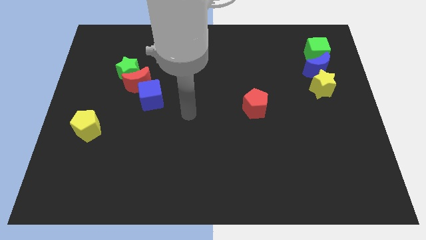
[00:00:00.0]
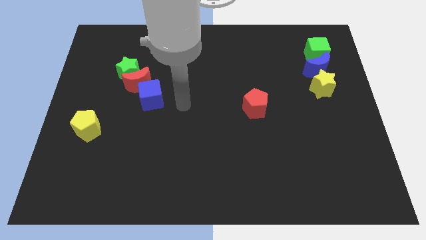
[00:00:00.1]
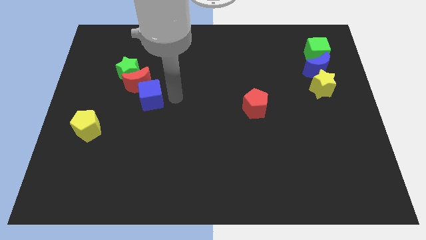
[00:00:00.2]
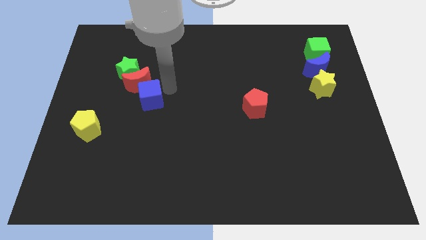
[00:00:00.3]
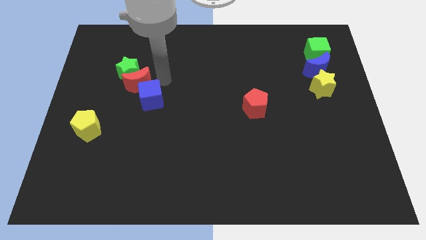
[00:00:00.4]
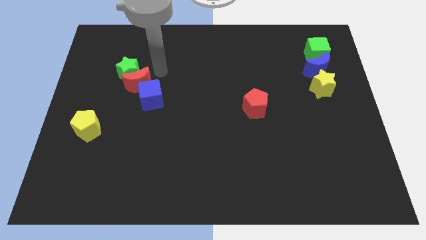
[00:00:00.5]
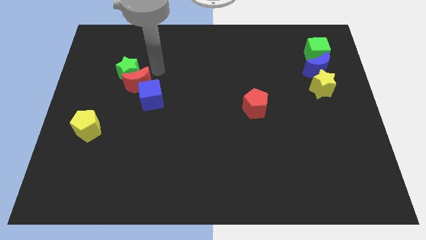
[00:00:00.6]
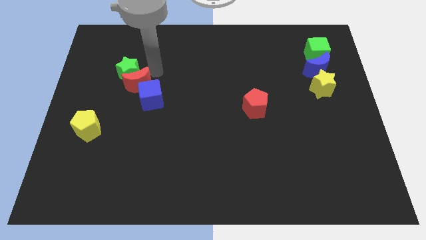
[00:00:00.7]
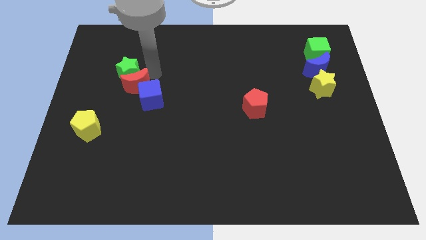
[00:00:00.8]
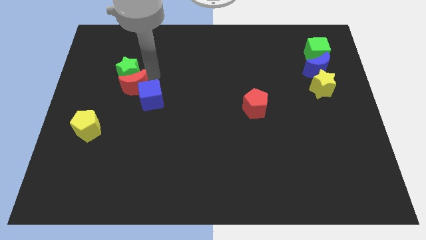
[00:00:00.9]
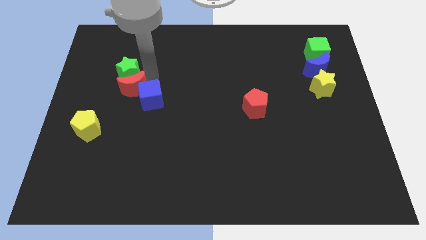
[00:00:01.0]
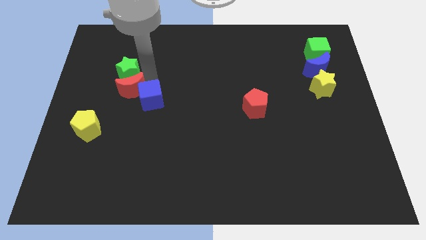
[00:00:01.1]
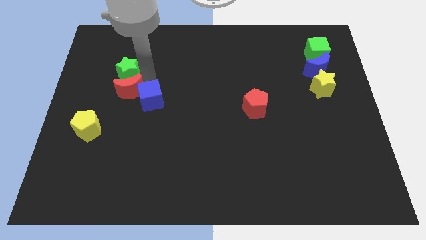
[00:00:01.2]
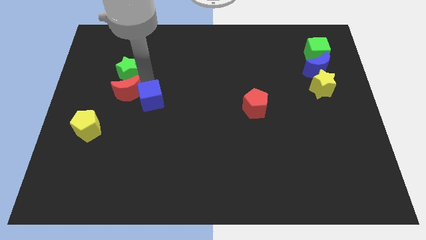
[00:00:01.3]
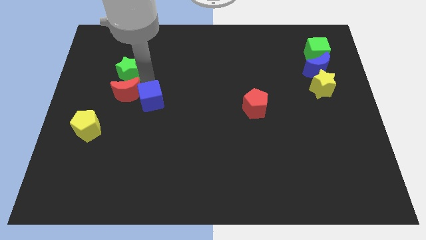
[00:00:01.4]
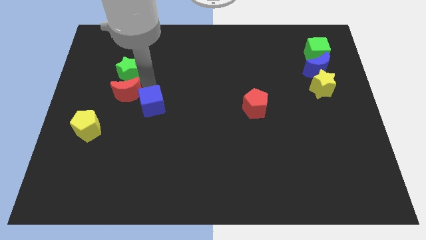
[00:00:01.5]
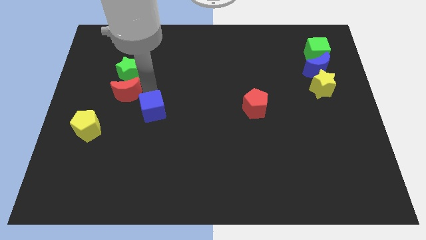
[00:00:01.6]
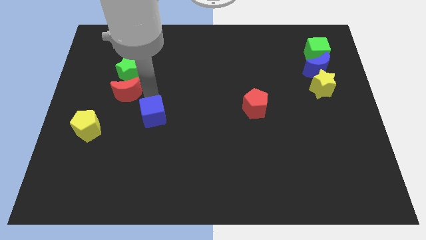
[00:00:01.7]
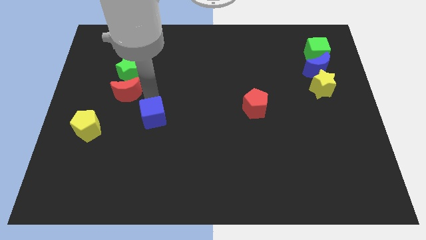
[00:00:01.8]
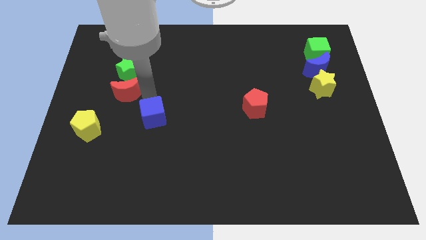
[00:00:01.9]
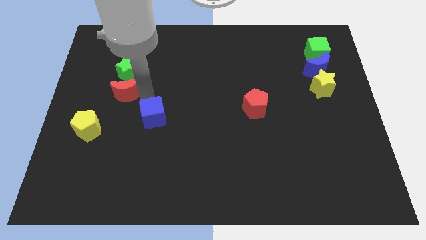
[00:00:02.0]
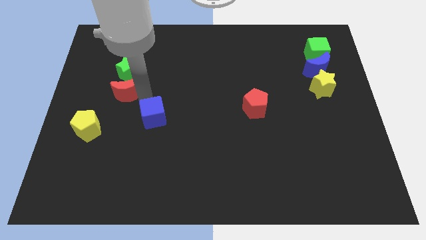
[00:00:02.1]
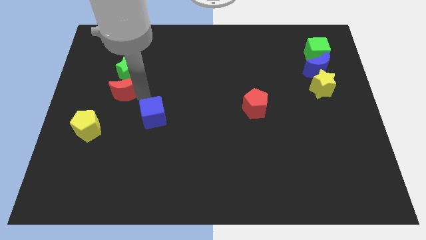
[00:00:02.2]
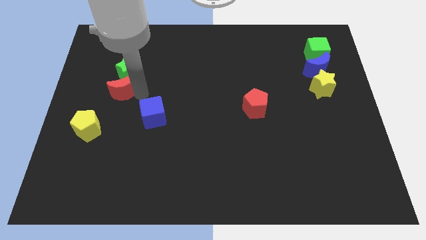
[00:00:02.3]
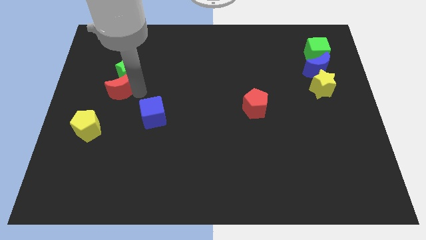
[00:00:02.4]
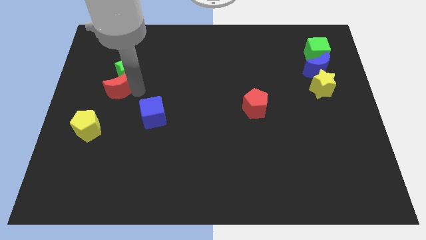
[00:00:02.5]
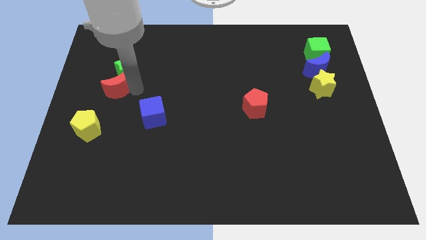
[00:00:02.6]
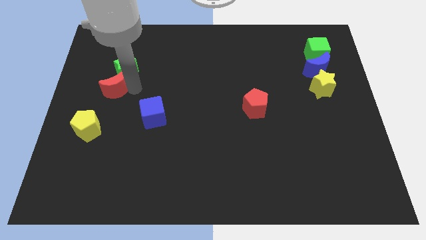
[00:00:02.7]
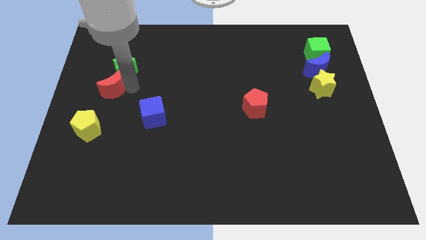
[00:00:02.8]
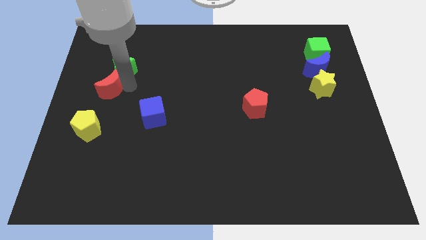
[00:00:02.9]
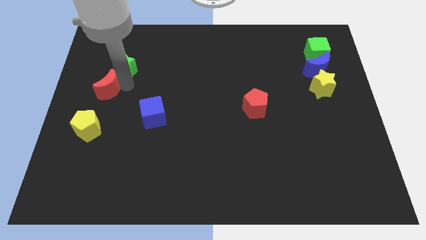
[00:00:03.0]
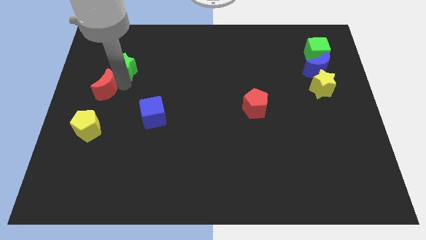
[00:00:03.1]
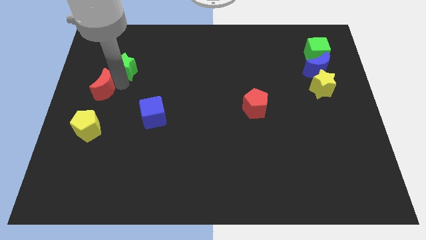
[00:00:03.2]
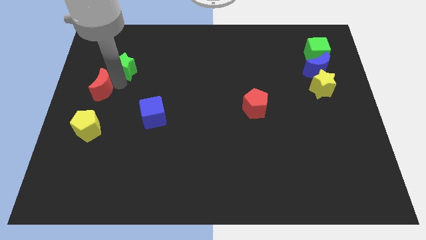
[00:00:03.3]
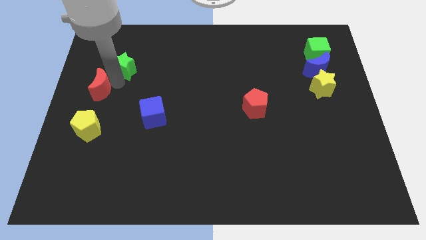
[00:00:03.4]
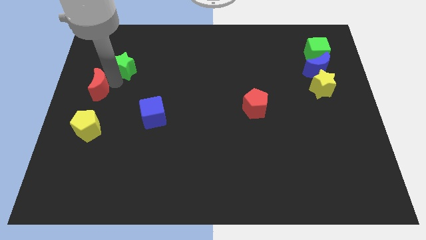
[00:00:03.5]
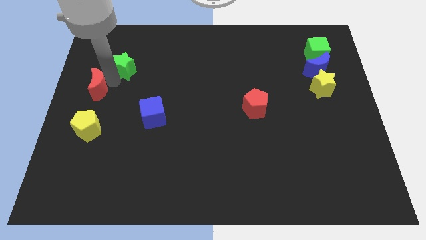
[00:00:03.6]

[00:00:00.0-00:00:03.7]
pull the red moon apart from the green star and blue cube

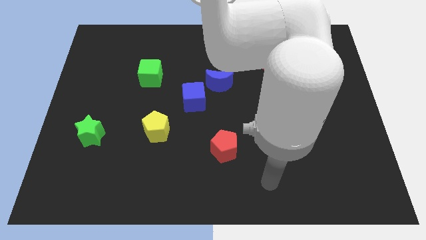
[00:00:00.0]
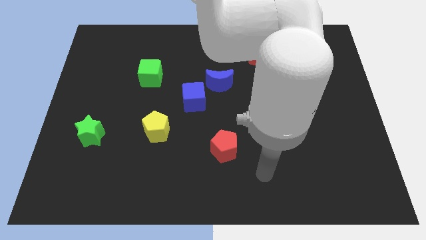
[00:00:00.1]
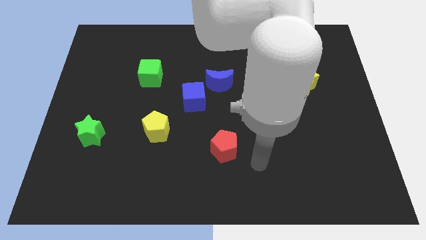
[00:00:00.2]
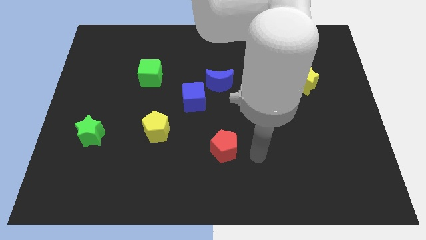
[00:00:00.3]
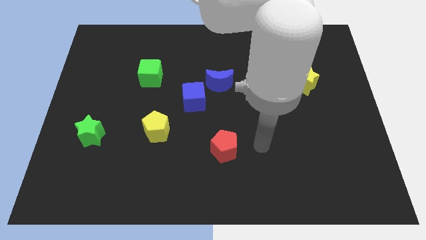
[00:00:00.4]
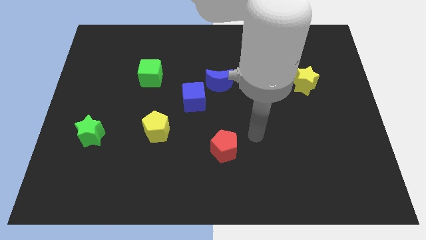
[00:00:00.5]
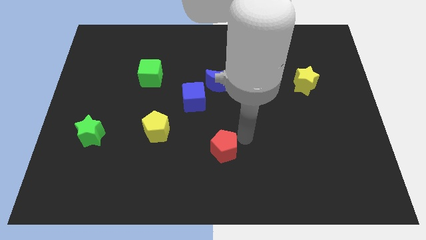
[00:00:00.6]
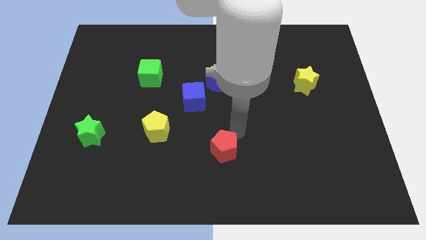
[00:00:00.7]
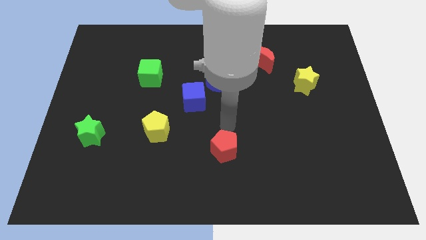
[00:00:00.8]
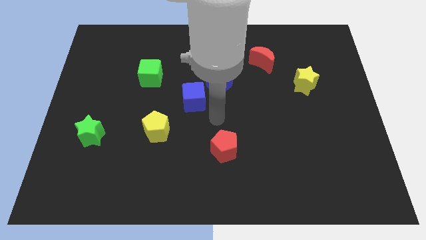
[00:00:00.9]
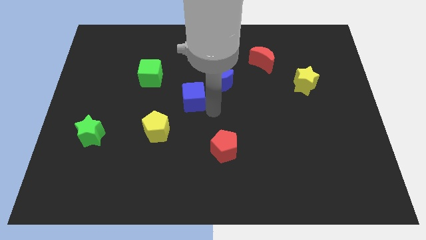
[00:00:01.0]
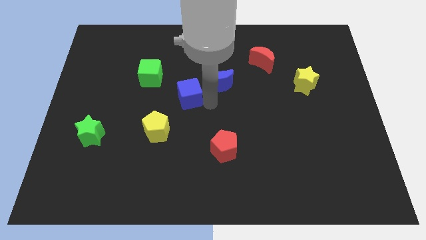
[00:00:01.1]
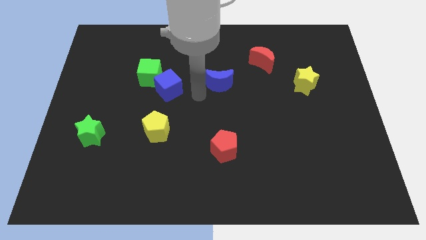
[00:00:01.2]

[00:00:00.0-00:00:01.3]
separate the blue moon from the blue cube

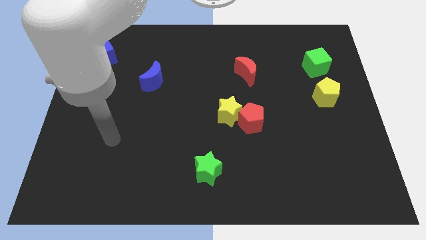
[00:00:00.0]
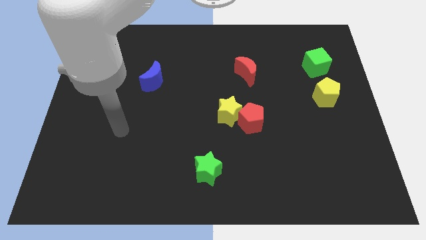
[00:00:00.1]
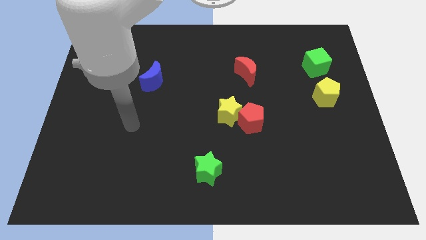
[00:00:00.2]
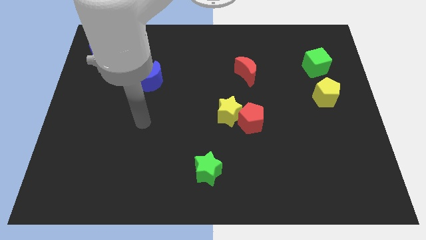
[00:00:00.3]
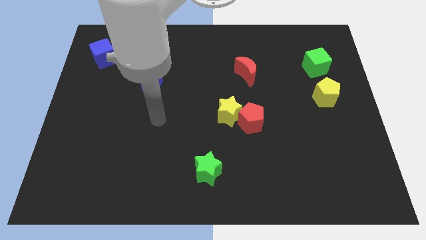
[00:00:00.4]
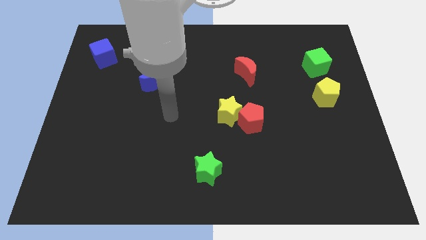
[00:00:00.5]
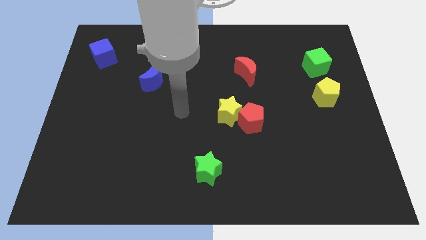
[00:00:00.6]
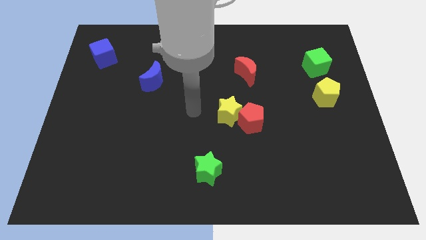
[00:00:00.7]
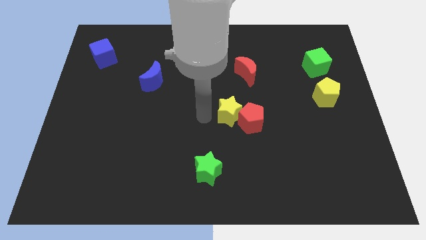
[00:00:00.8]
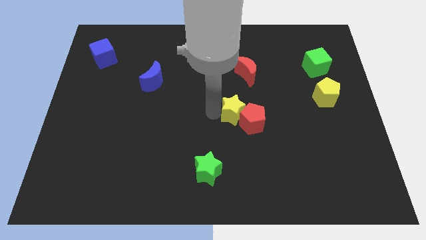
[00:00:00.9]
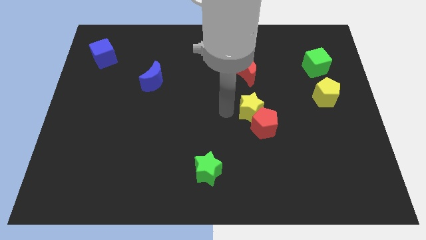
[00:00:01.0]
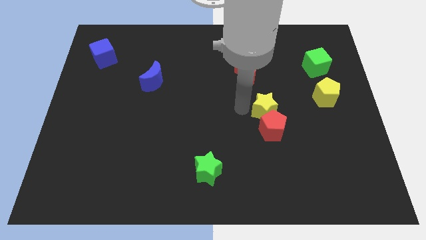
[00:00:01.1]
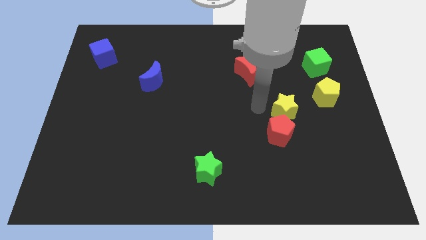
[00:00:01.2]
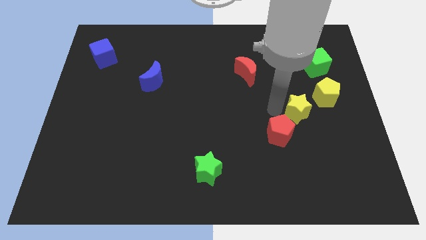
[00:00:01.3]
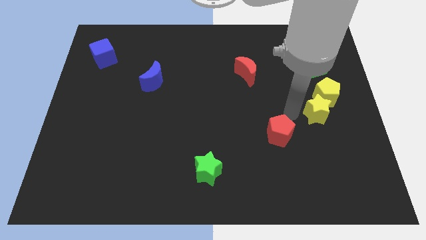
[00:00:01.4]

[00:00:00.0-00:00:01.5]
separate the red pentagon from the yellow star

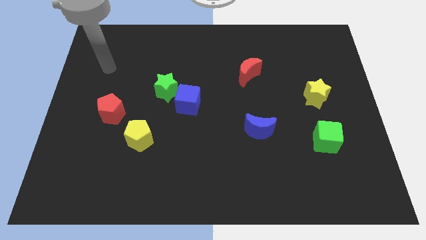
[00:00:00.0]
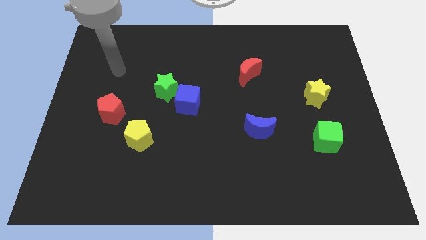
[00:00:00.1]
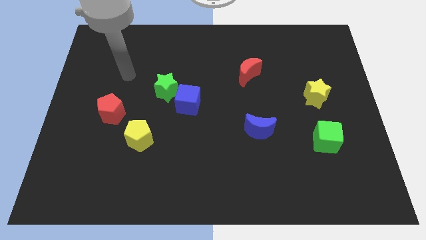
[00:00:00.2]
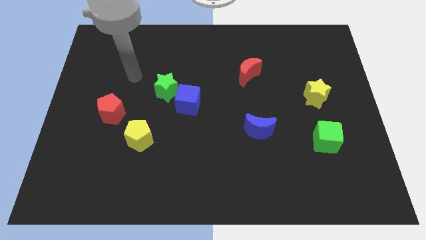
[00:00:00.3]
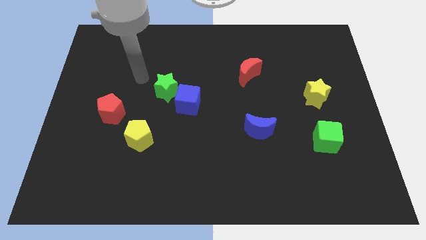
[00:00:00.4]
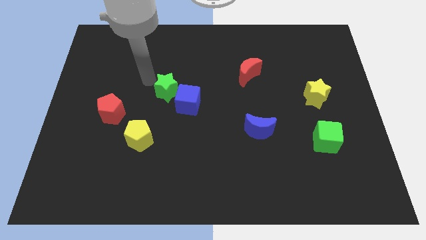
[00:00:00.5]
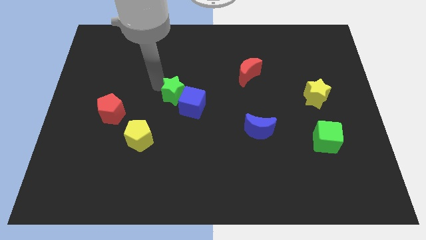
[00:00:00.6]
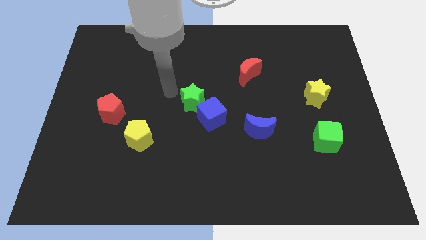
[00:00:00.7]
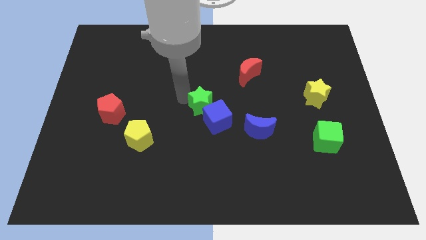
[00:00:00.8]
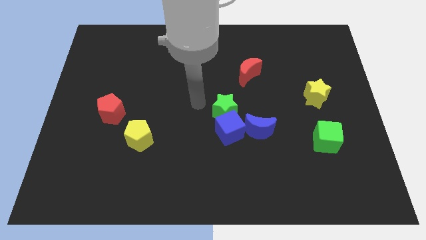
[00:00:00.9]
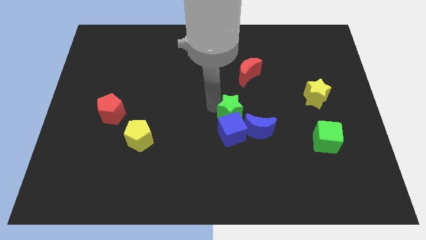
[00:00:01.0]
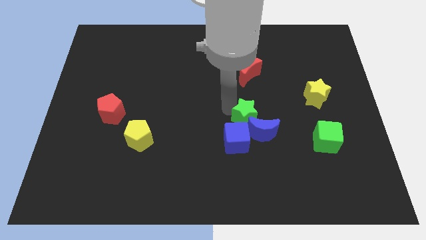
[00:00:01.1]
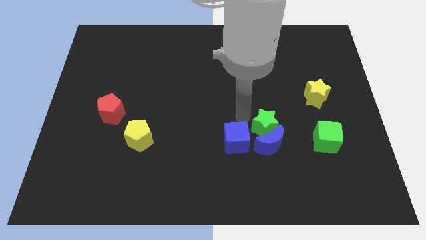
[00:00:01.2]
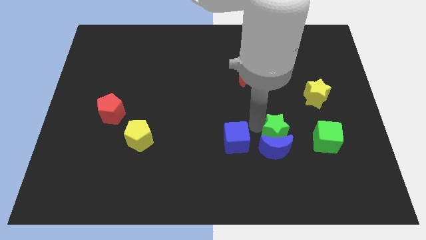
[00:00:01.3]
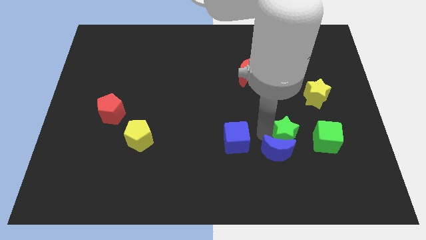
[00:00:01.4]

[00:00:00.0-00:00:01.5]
pull the blue cube apart from the green star

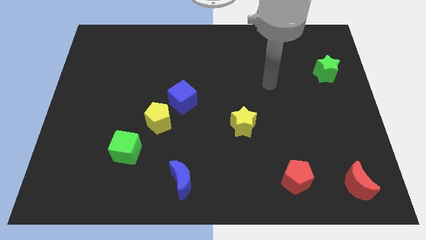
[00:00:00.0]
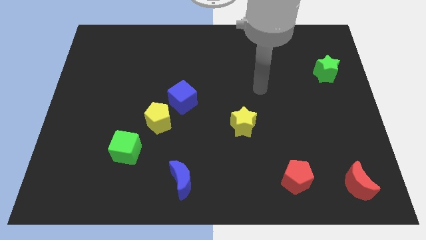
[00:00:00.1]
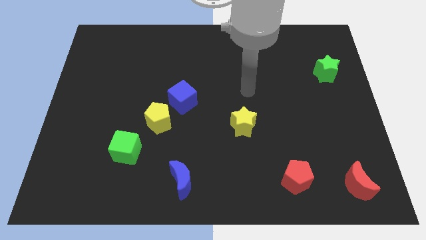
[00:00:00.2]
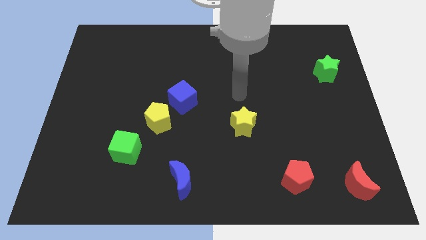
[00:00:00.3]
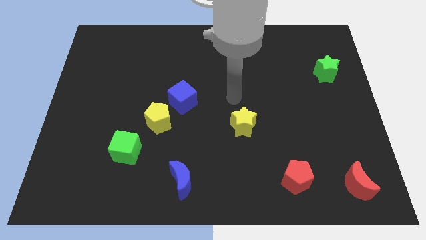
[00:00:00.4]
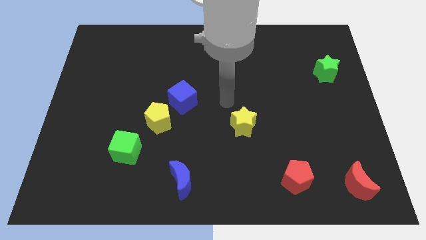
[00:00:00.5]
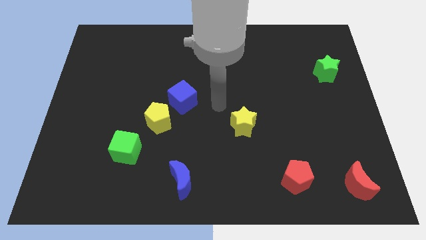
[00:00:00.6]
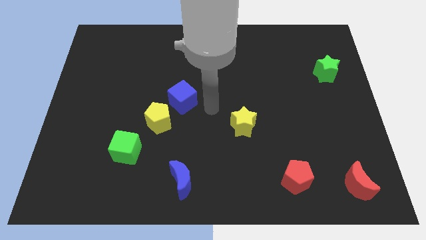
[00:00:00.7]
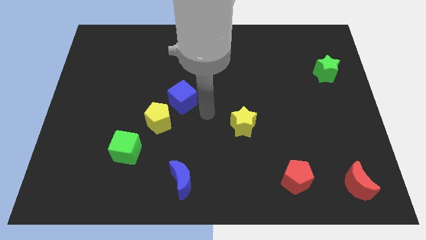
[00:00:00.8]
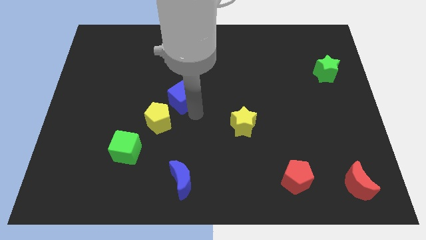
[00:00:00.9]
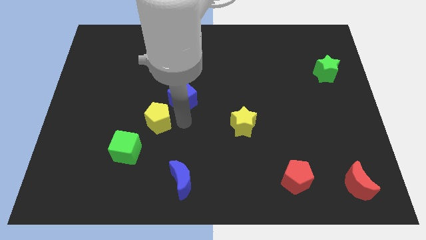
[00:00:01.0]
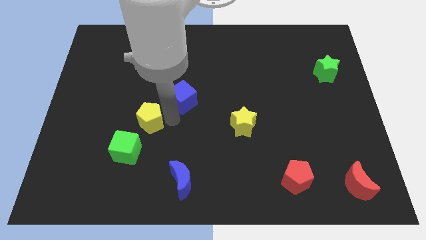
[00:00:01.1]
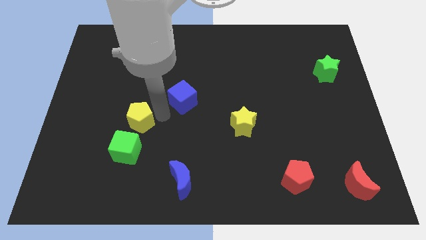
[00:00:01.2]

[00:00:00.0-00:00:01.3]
separate the blue cube from the yellow pentagon
